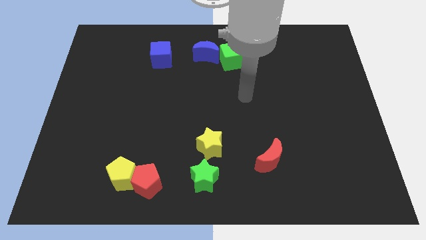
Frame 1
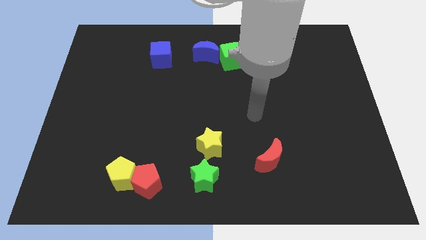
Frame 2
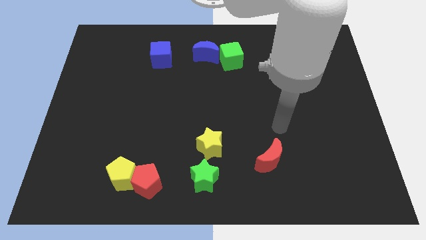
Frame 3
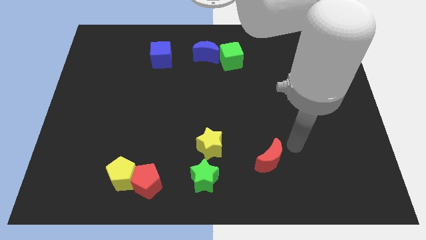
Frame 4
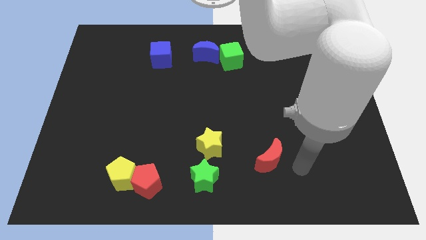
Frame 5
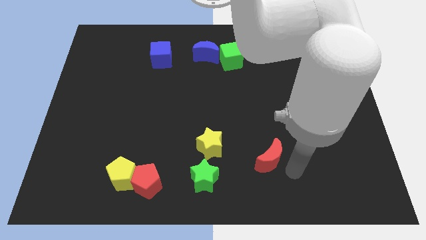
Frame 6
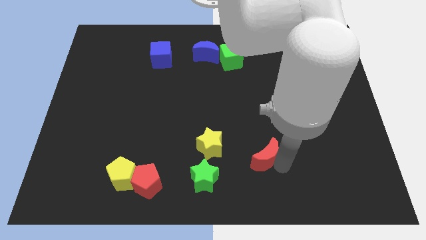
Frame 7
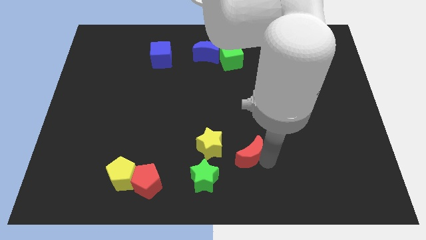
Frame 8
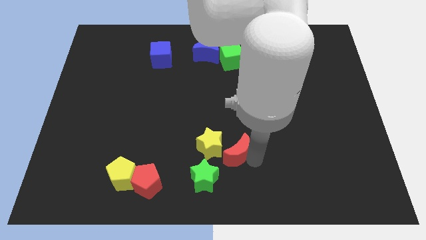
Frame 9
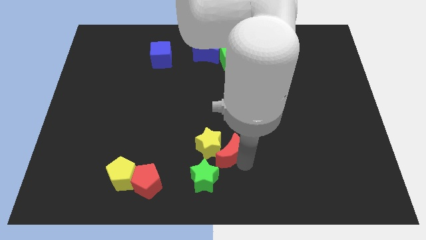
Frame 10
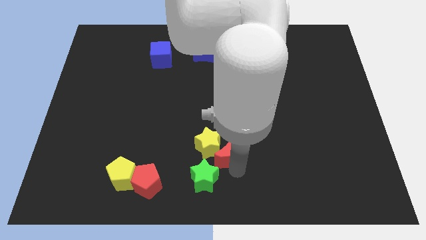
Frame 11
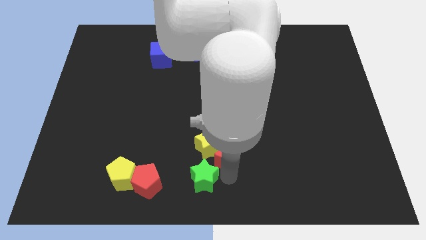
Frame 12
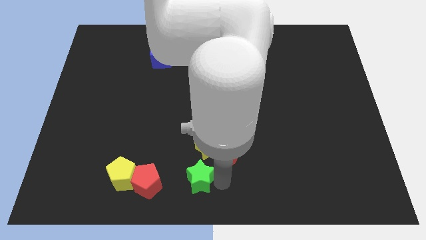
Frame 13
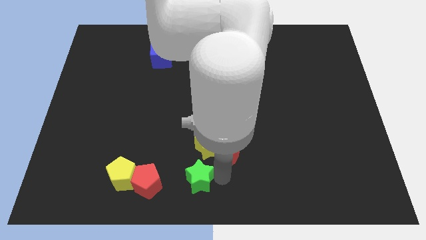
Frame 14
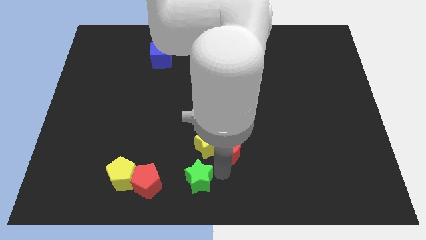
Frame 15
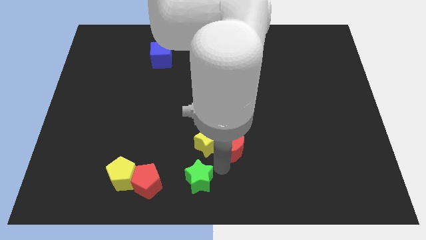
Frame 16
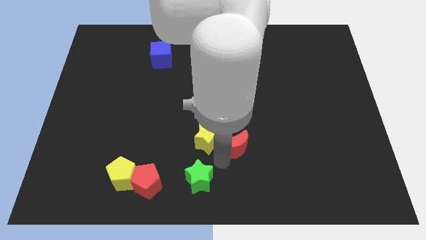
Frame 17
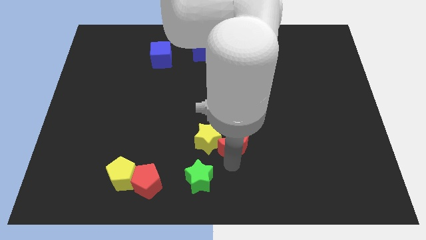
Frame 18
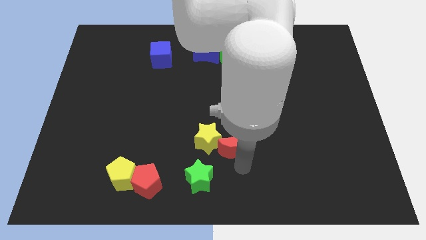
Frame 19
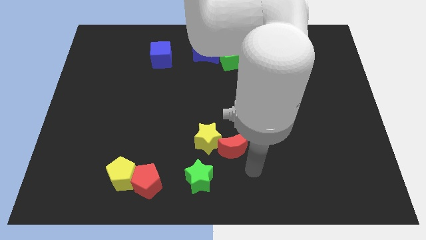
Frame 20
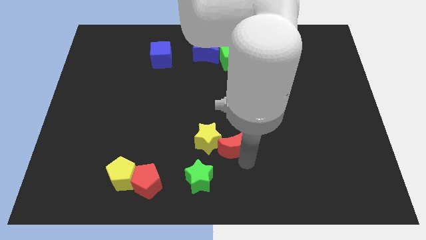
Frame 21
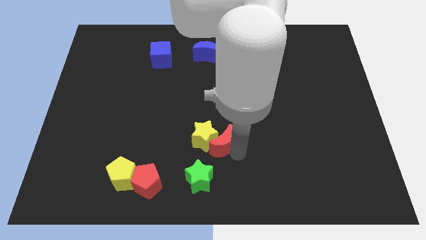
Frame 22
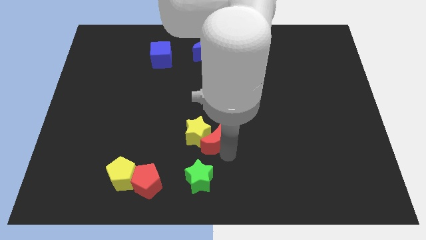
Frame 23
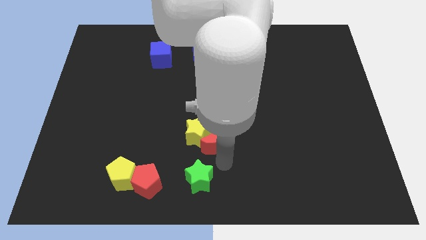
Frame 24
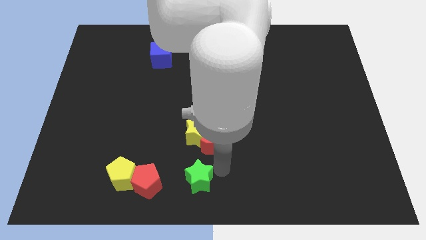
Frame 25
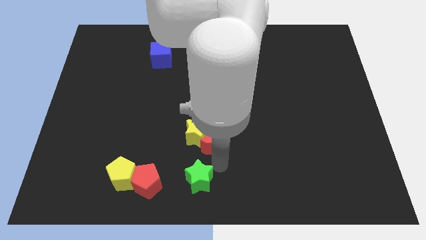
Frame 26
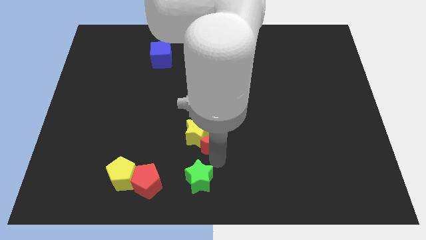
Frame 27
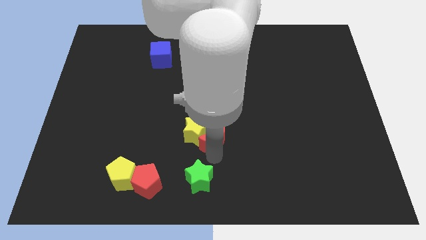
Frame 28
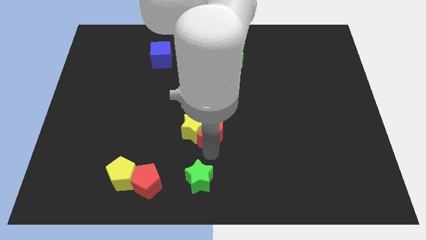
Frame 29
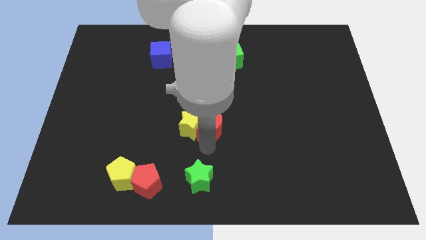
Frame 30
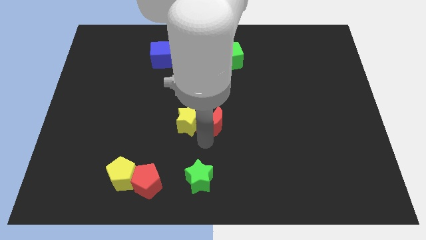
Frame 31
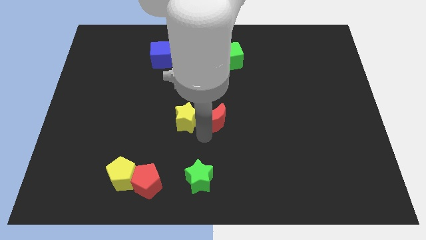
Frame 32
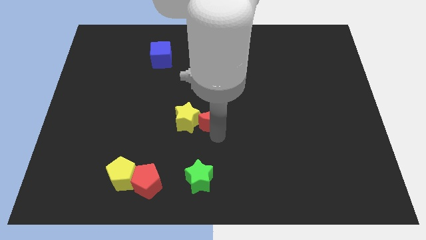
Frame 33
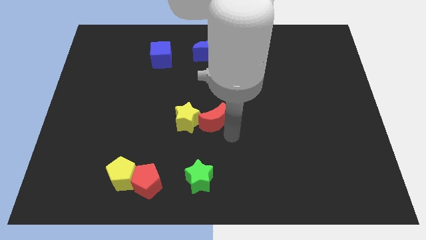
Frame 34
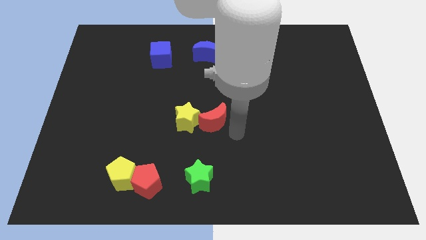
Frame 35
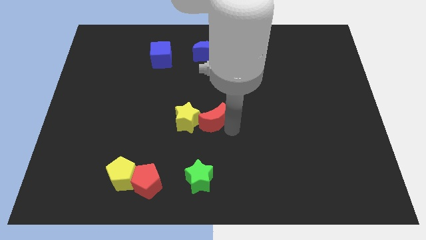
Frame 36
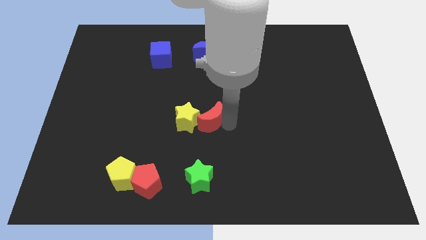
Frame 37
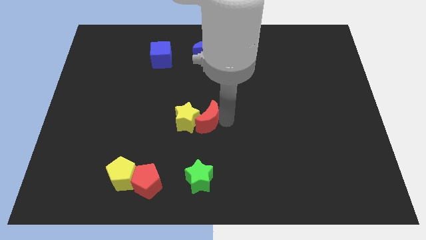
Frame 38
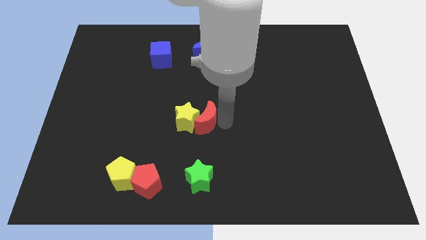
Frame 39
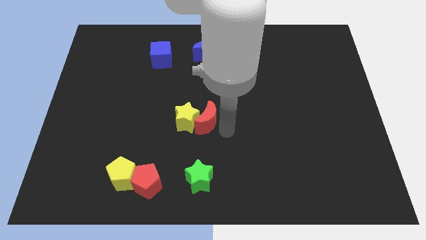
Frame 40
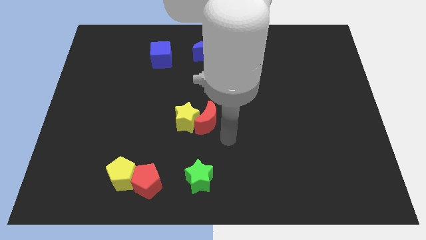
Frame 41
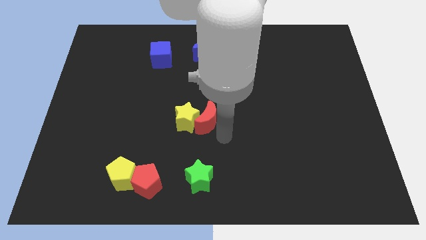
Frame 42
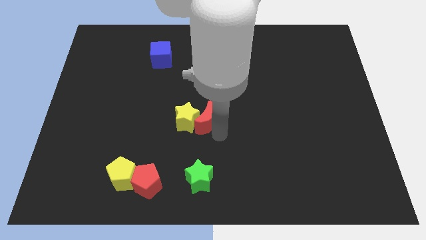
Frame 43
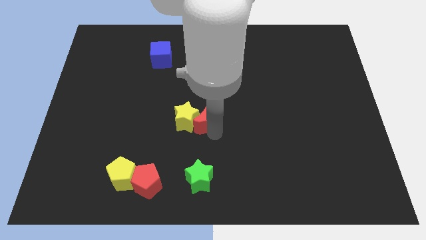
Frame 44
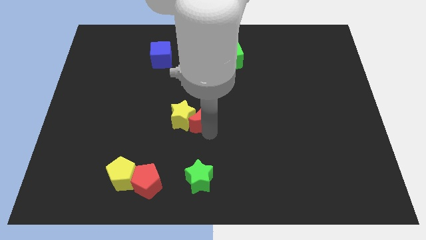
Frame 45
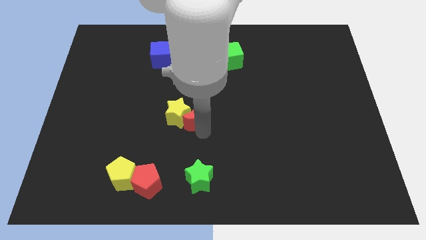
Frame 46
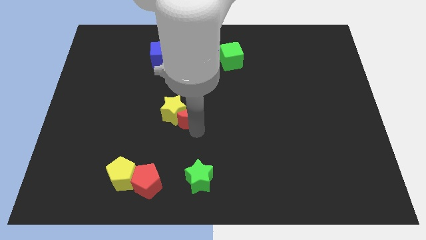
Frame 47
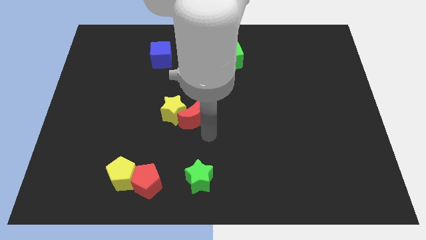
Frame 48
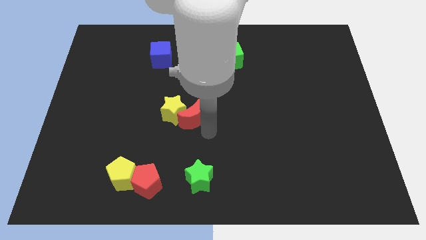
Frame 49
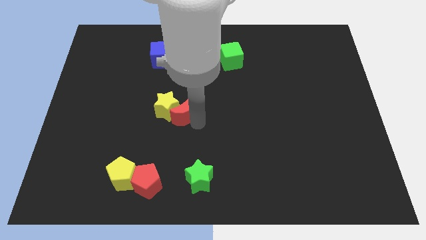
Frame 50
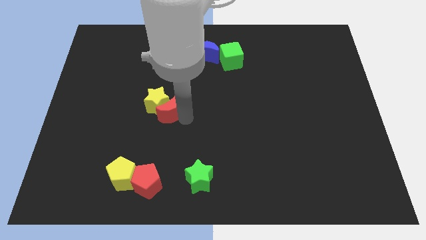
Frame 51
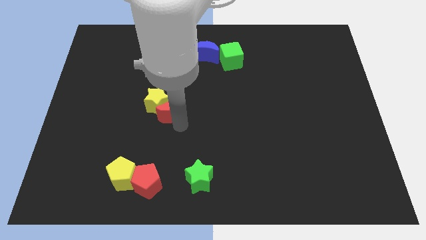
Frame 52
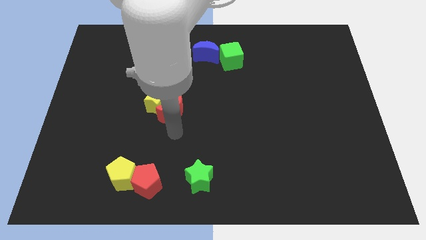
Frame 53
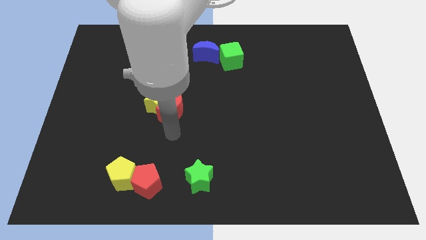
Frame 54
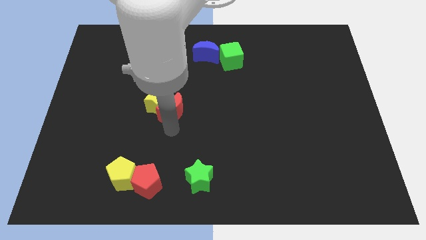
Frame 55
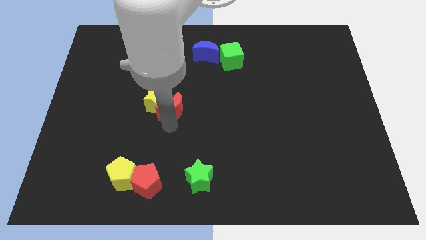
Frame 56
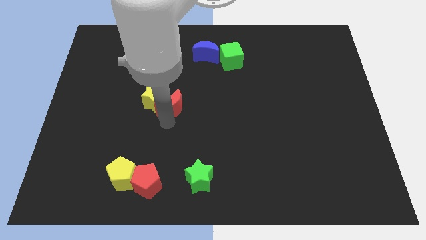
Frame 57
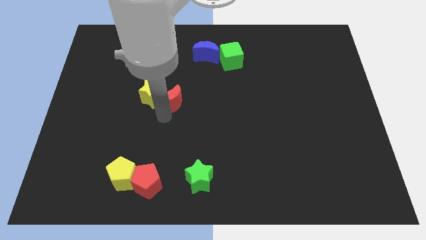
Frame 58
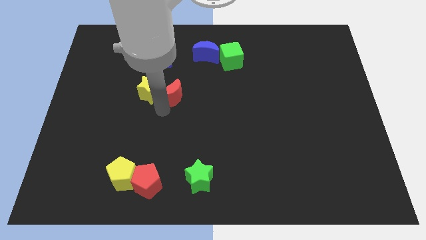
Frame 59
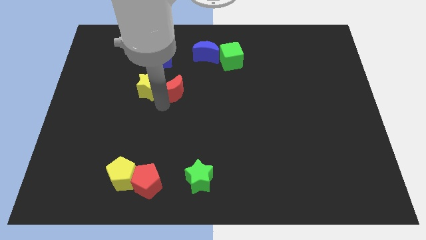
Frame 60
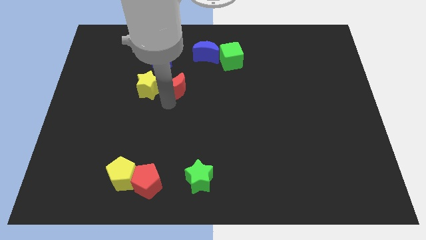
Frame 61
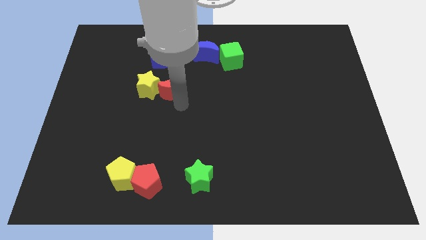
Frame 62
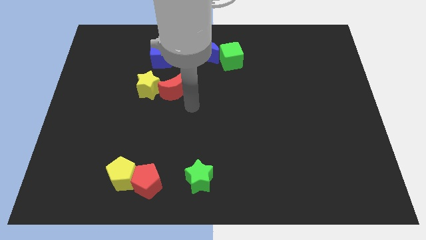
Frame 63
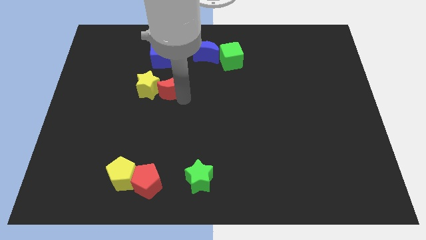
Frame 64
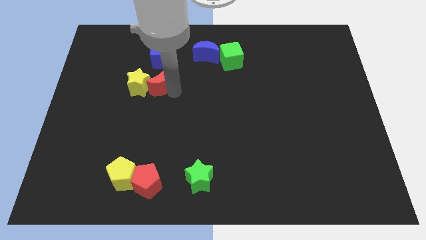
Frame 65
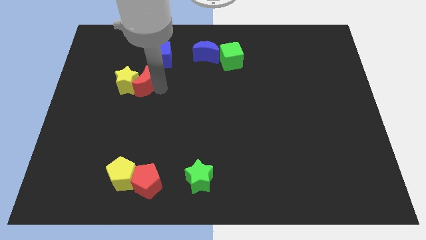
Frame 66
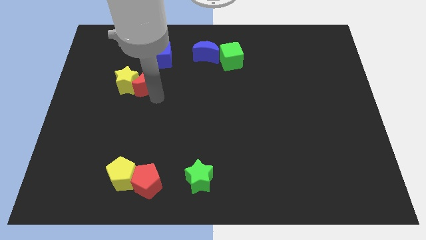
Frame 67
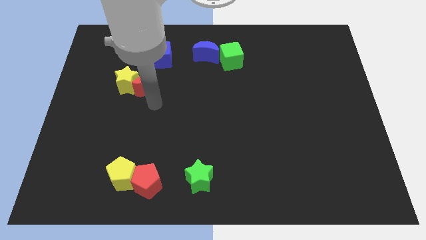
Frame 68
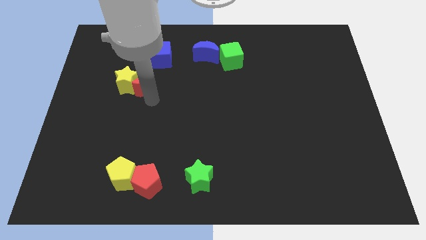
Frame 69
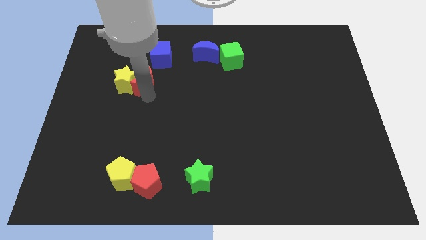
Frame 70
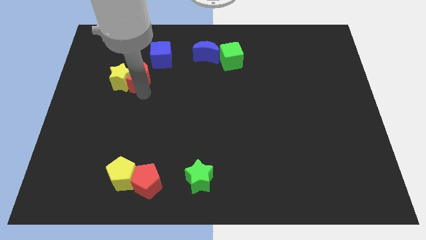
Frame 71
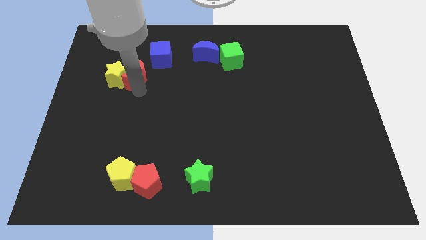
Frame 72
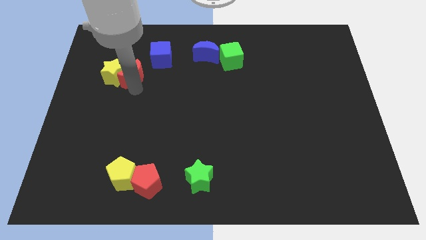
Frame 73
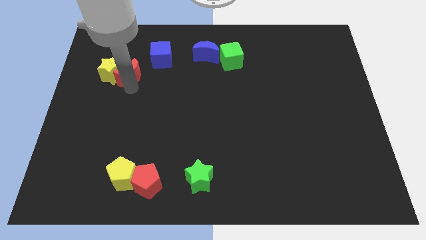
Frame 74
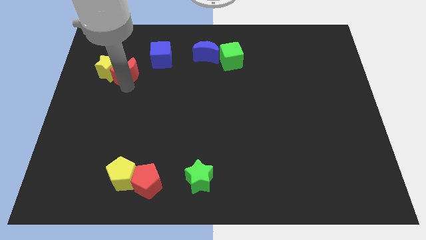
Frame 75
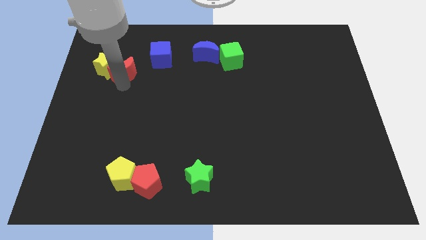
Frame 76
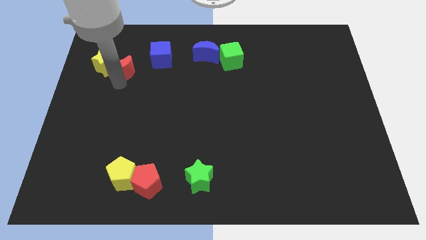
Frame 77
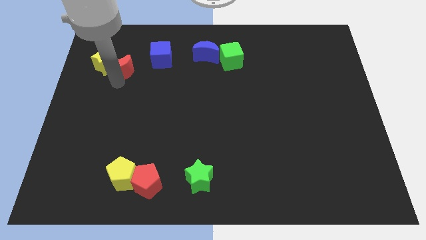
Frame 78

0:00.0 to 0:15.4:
move the red moon to the left of the blue cube
